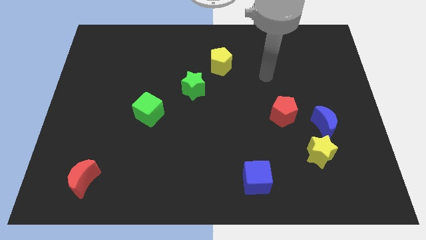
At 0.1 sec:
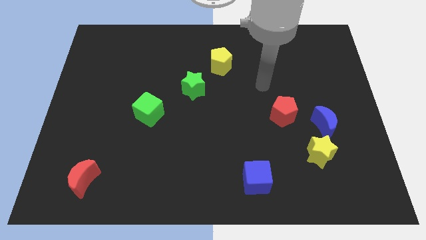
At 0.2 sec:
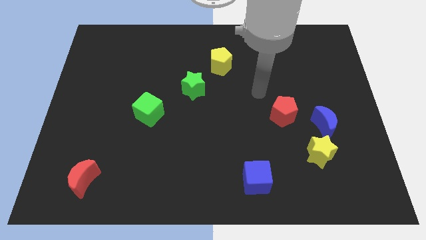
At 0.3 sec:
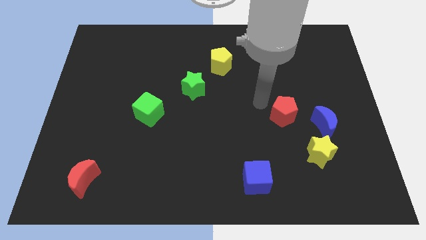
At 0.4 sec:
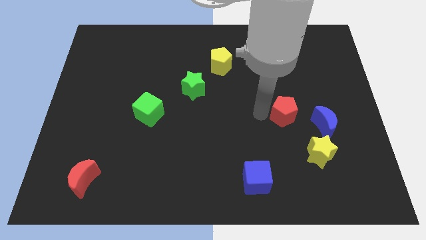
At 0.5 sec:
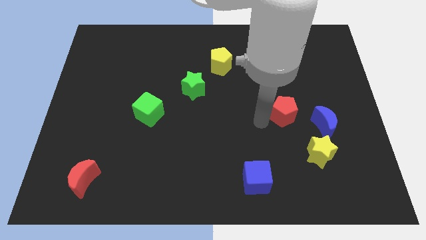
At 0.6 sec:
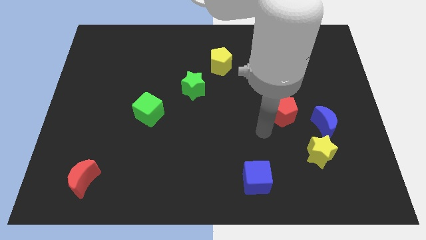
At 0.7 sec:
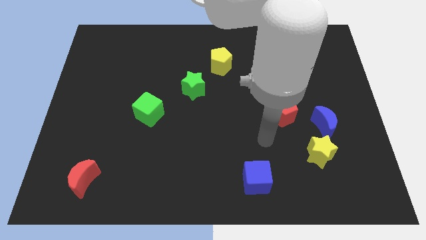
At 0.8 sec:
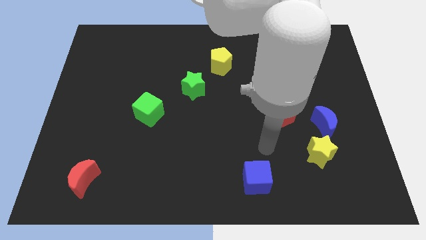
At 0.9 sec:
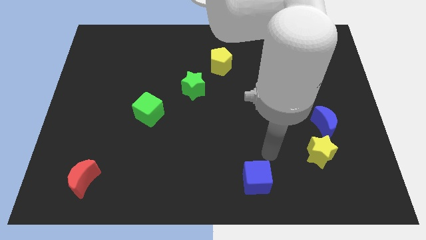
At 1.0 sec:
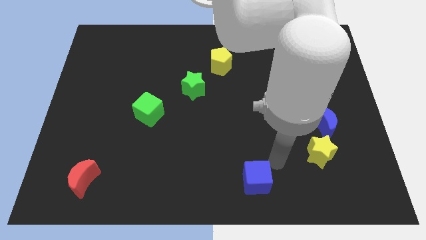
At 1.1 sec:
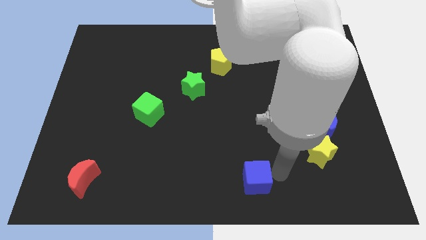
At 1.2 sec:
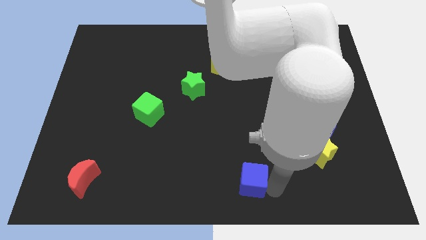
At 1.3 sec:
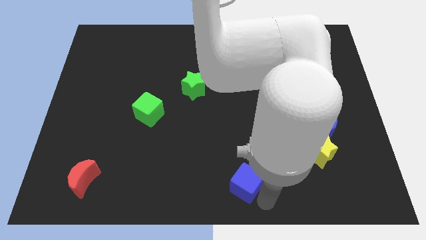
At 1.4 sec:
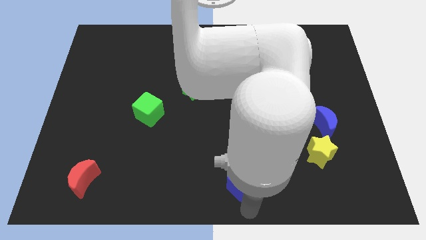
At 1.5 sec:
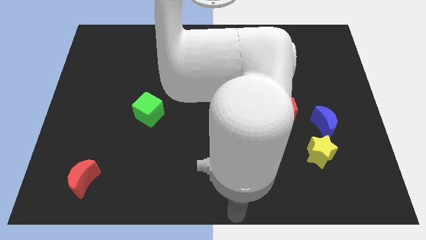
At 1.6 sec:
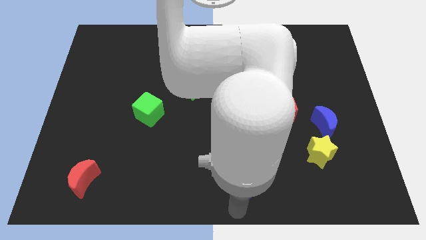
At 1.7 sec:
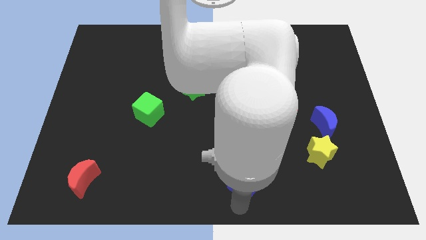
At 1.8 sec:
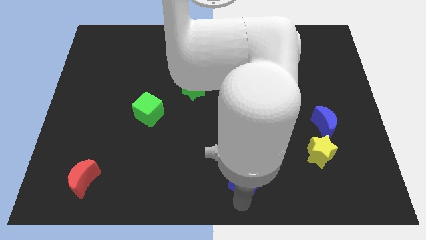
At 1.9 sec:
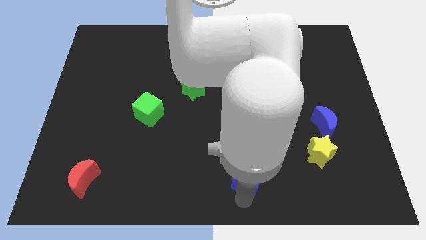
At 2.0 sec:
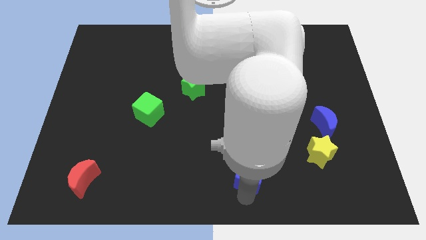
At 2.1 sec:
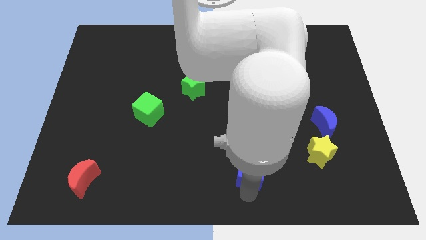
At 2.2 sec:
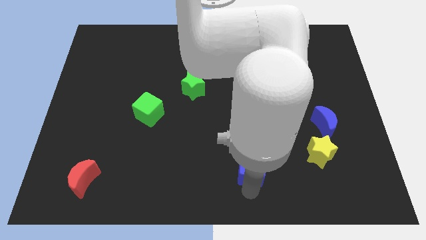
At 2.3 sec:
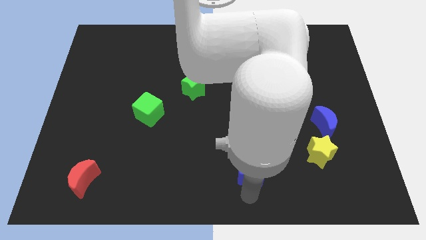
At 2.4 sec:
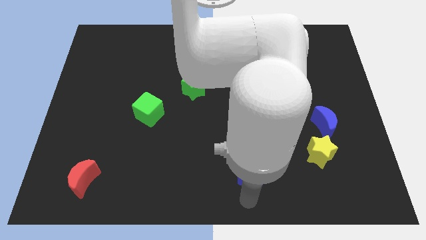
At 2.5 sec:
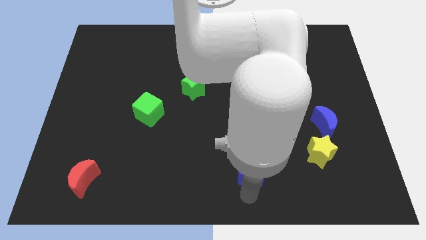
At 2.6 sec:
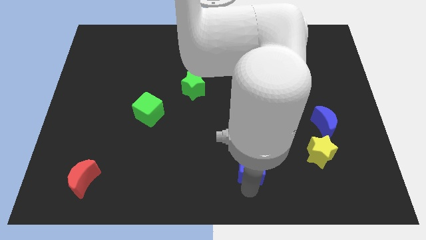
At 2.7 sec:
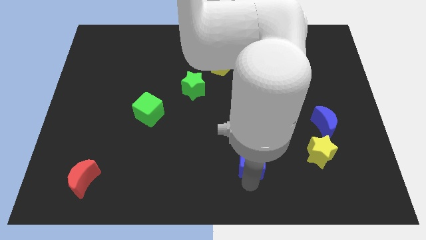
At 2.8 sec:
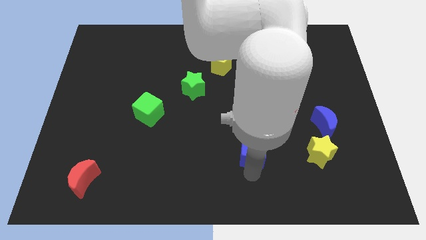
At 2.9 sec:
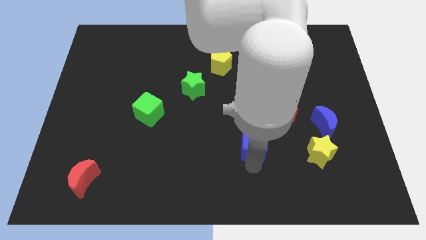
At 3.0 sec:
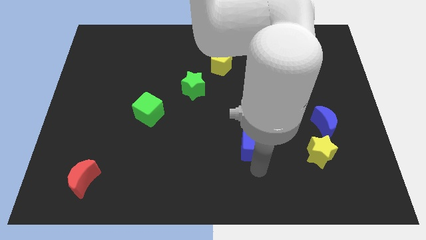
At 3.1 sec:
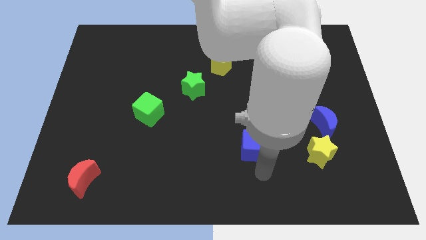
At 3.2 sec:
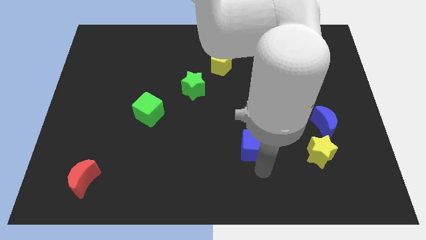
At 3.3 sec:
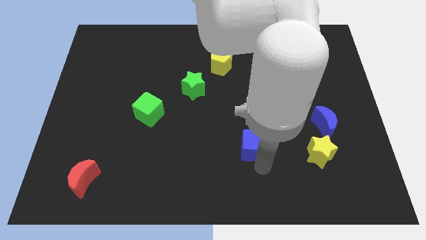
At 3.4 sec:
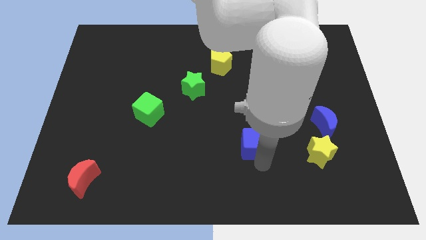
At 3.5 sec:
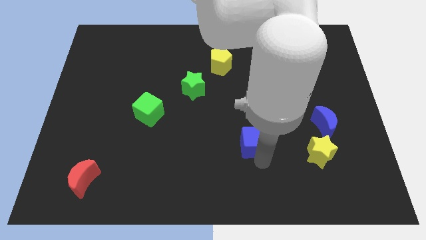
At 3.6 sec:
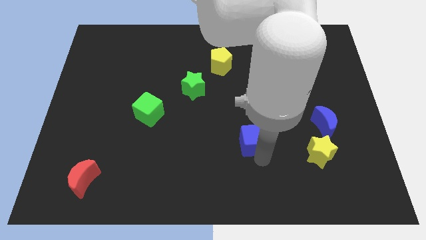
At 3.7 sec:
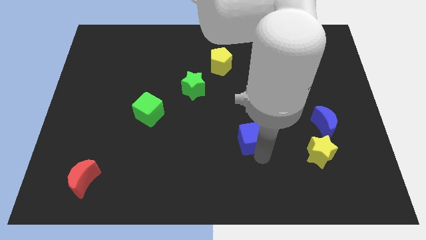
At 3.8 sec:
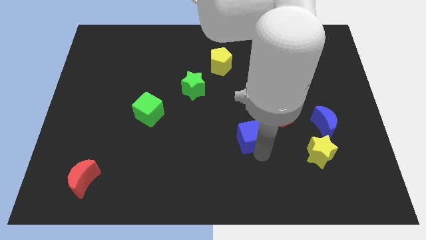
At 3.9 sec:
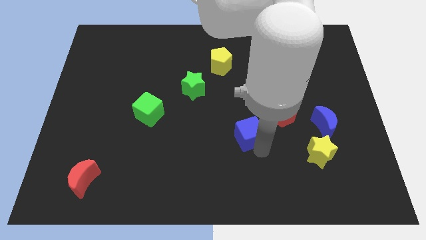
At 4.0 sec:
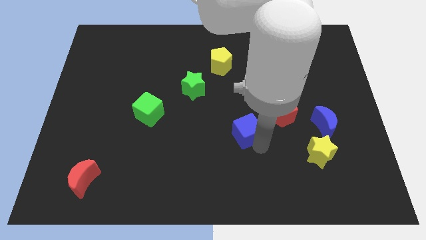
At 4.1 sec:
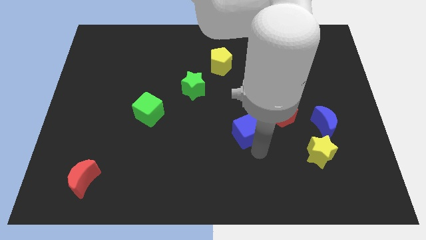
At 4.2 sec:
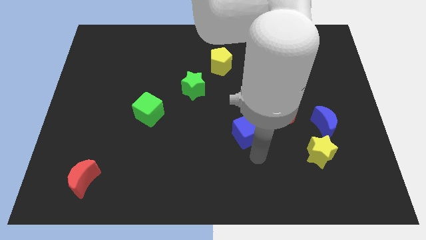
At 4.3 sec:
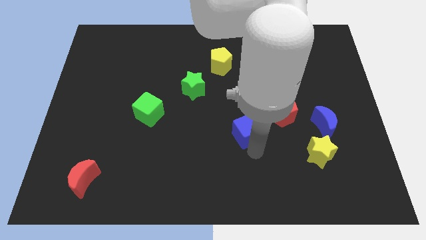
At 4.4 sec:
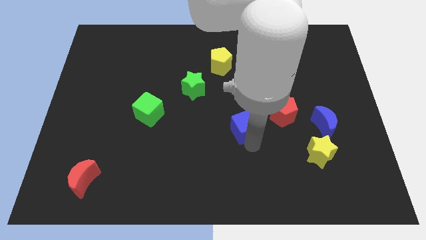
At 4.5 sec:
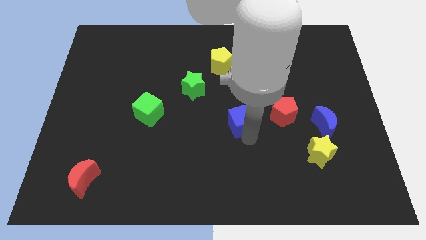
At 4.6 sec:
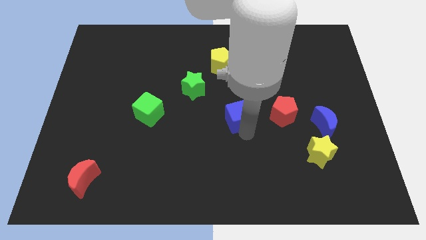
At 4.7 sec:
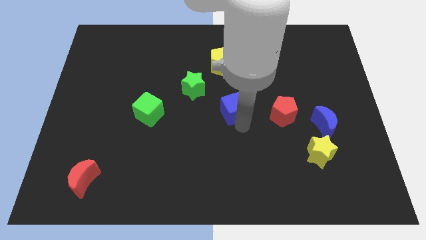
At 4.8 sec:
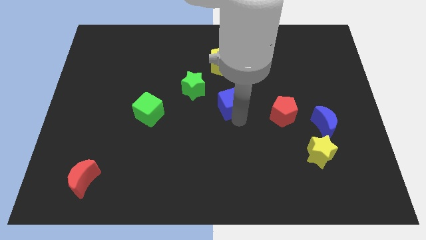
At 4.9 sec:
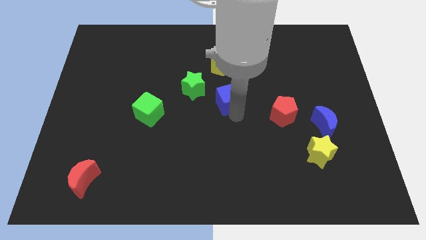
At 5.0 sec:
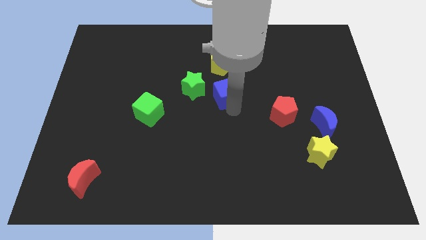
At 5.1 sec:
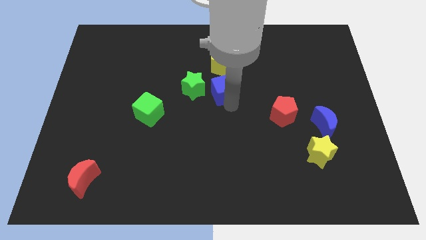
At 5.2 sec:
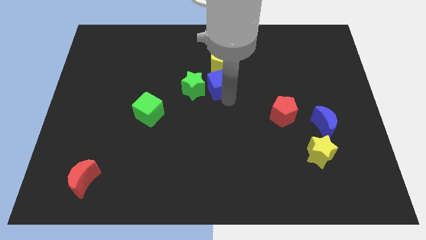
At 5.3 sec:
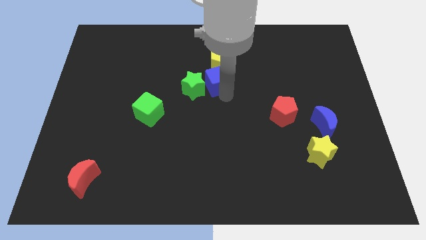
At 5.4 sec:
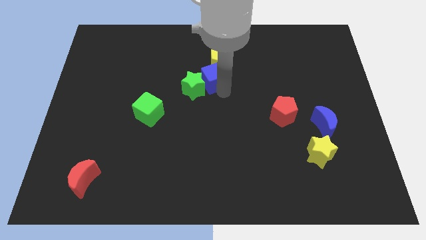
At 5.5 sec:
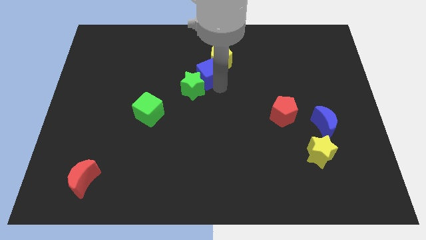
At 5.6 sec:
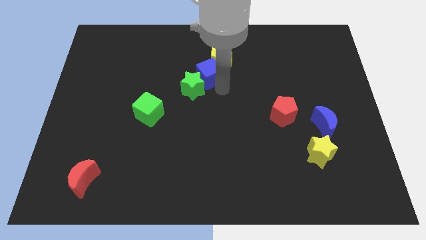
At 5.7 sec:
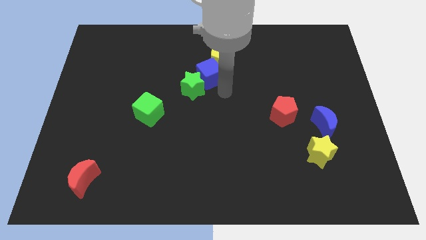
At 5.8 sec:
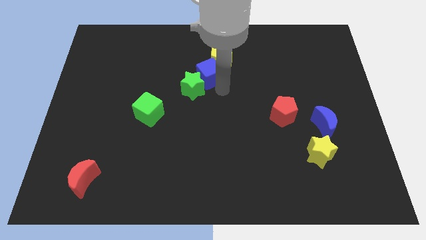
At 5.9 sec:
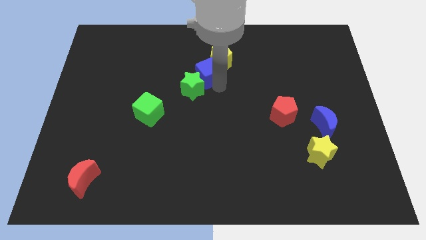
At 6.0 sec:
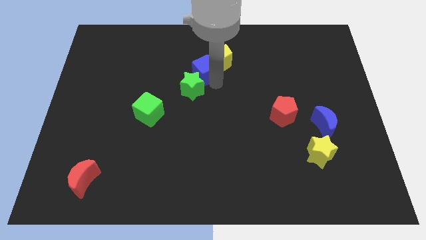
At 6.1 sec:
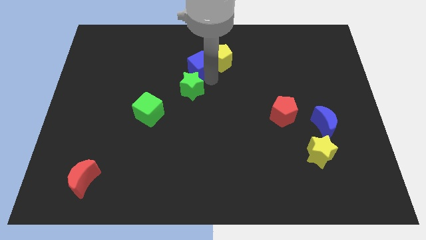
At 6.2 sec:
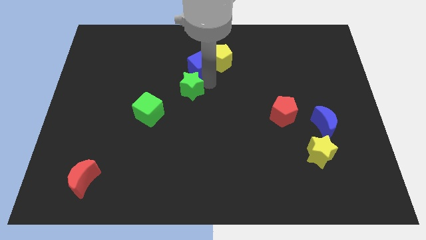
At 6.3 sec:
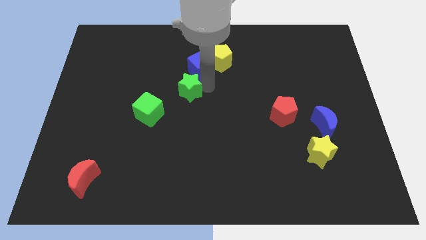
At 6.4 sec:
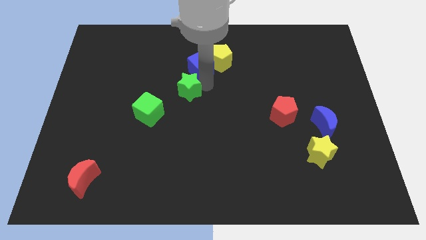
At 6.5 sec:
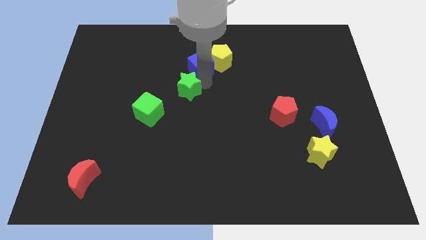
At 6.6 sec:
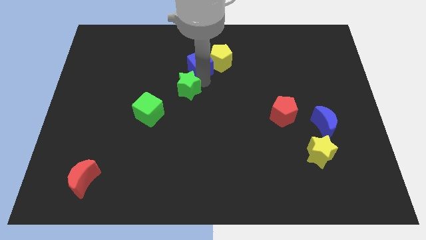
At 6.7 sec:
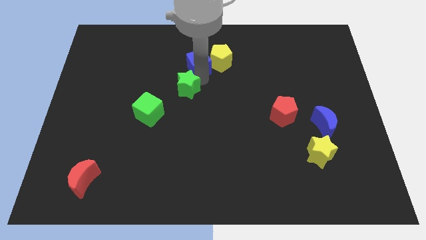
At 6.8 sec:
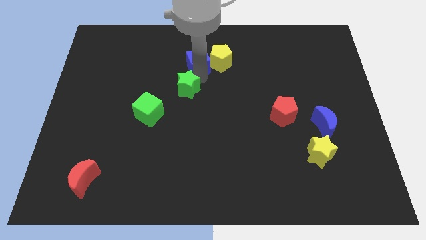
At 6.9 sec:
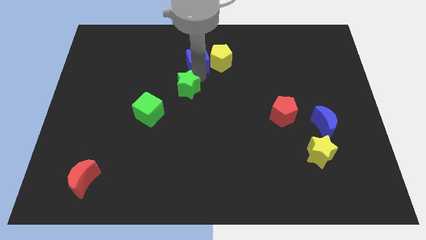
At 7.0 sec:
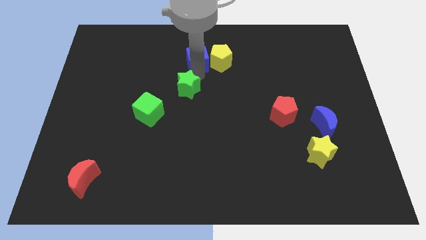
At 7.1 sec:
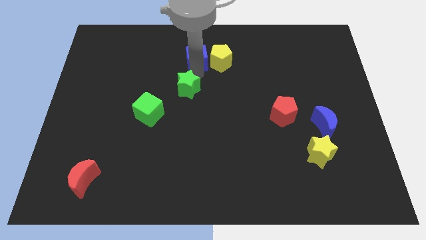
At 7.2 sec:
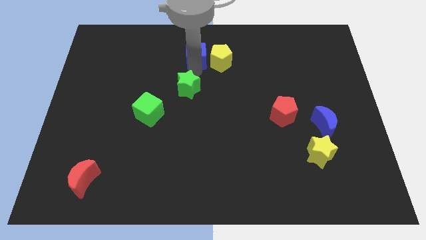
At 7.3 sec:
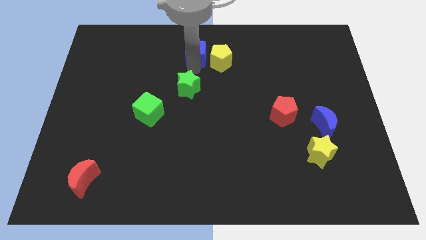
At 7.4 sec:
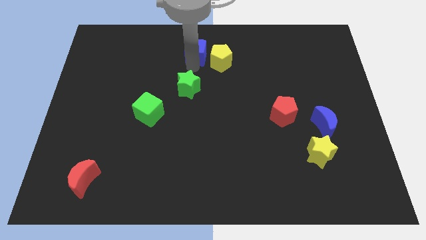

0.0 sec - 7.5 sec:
put the blue cube to the top side
